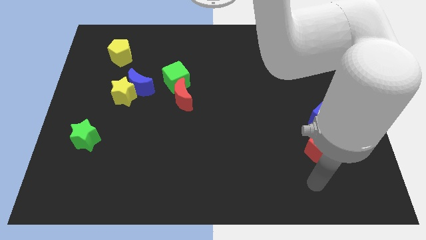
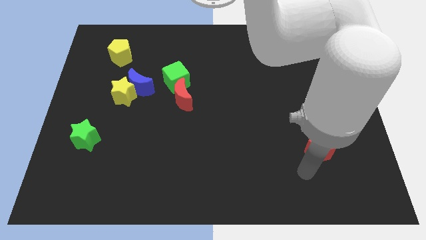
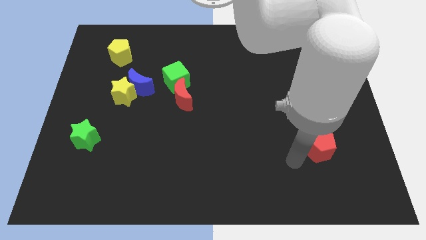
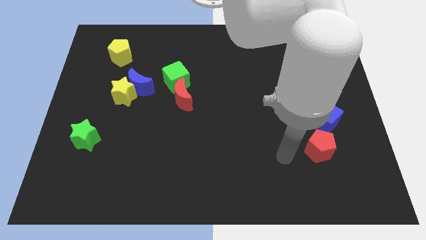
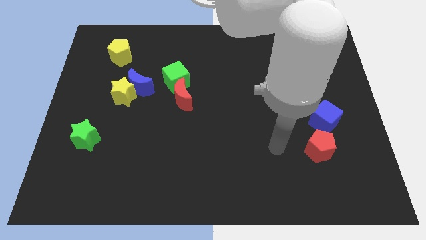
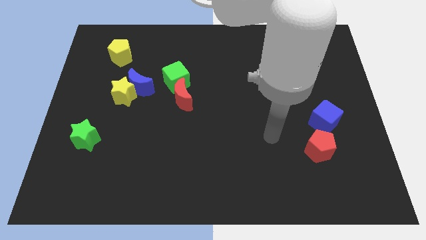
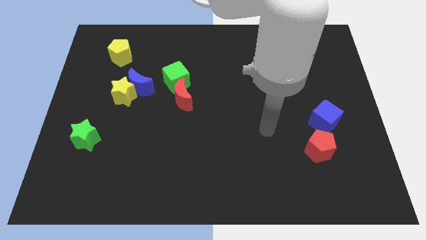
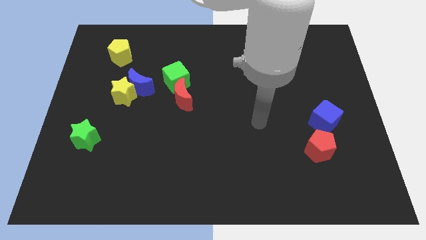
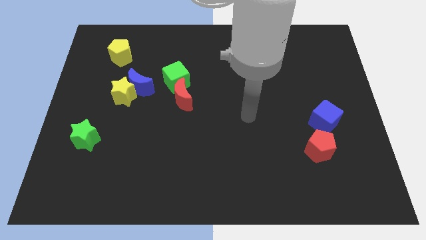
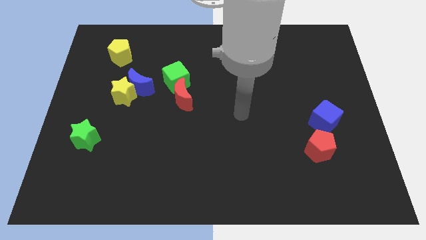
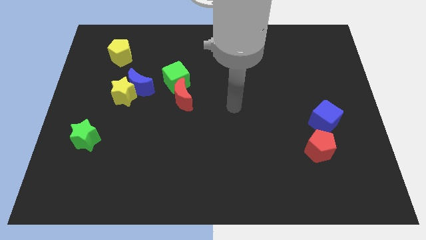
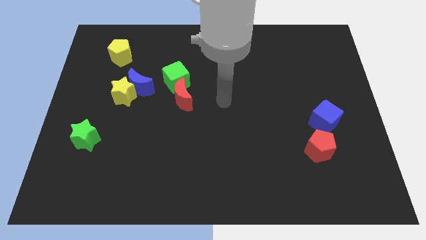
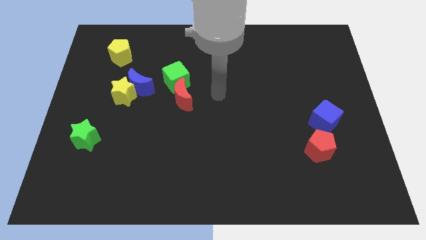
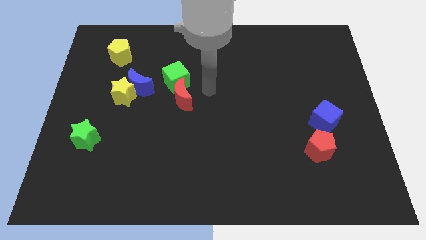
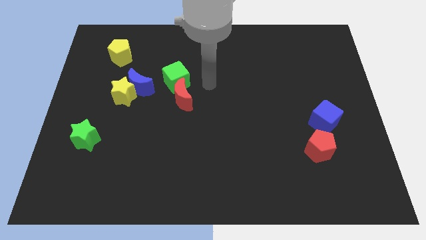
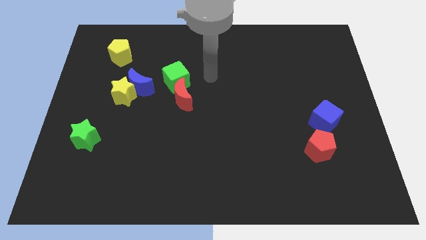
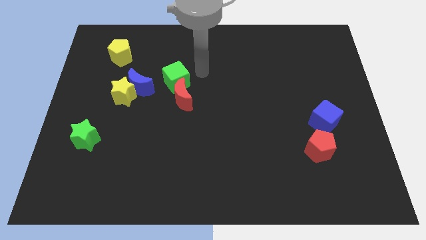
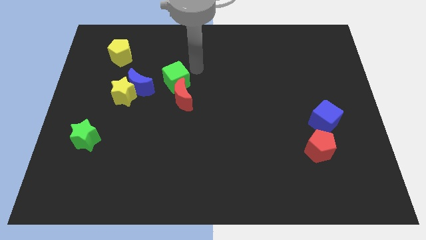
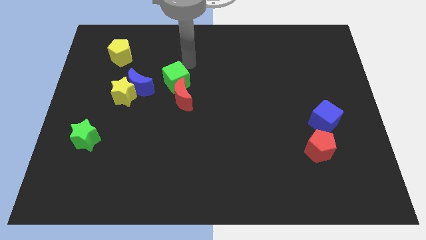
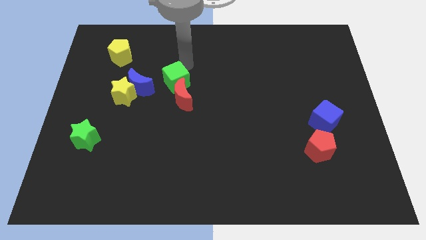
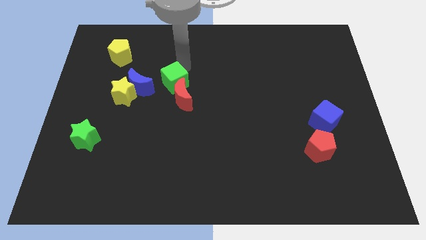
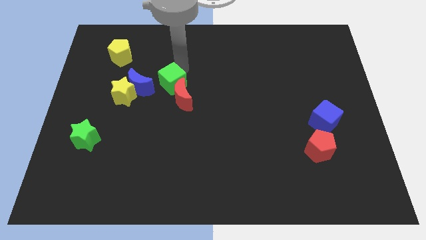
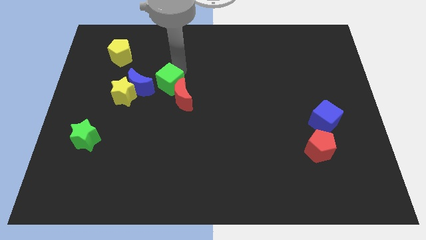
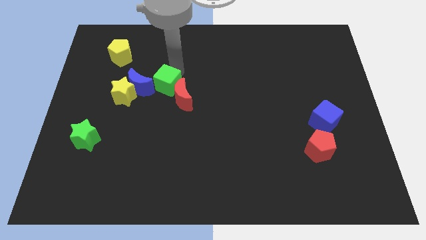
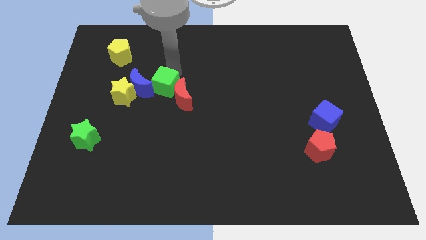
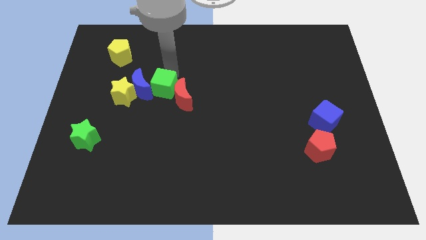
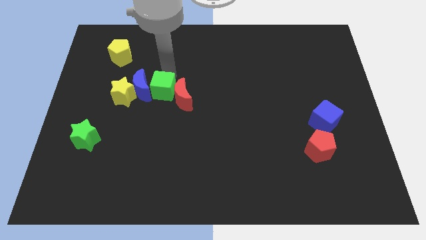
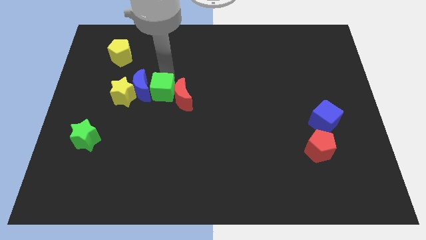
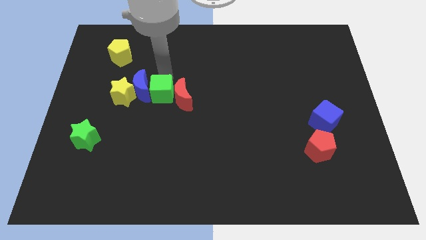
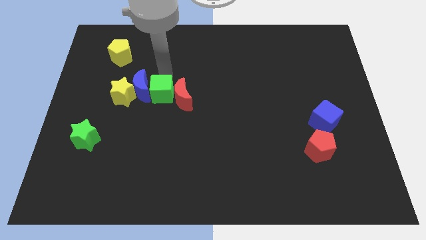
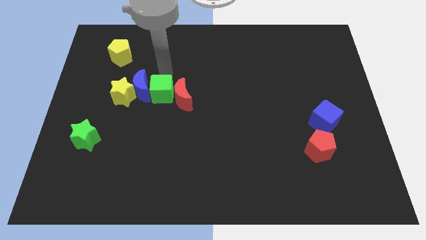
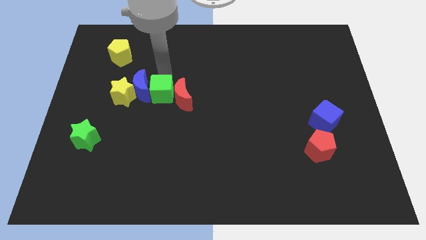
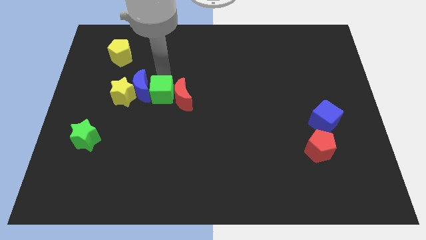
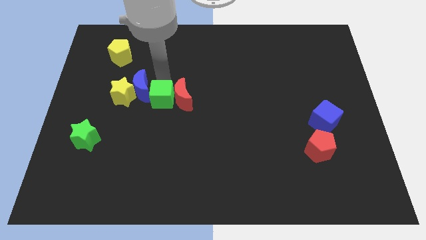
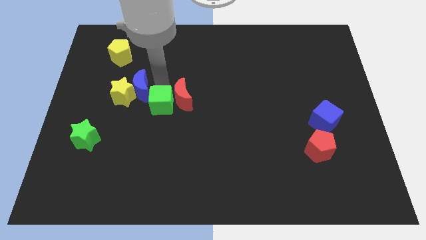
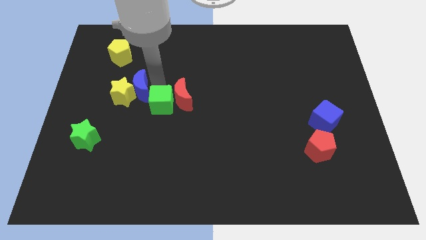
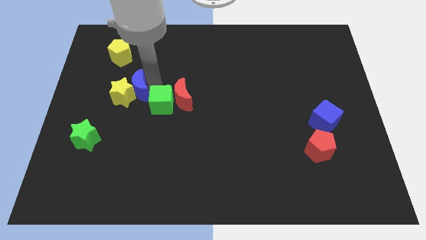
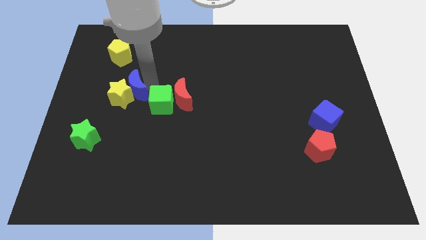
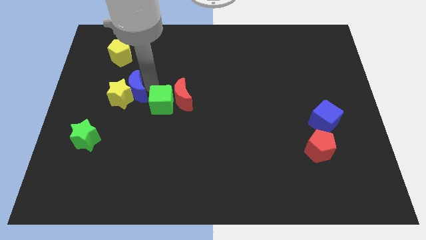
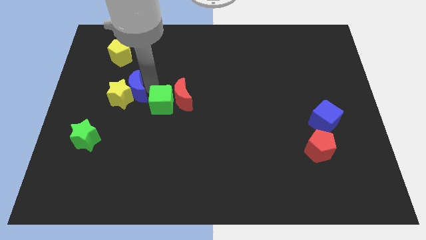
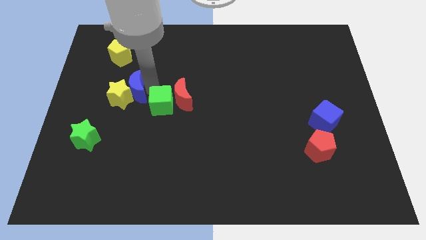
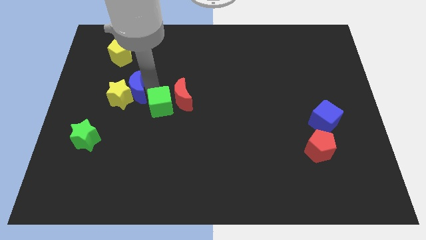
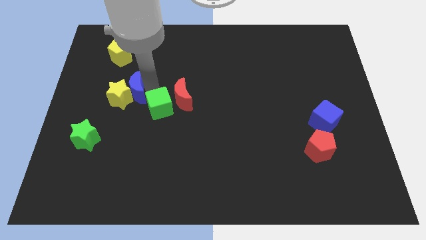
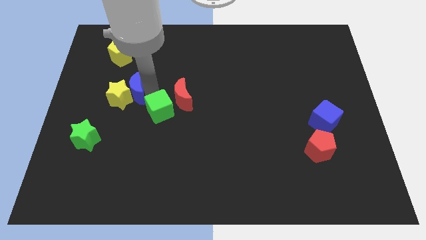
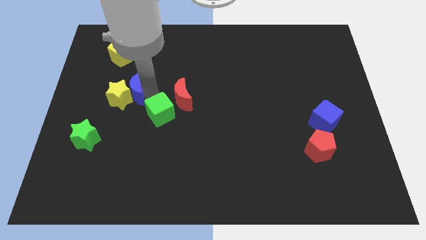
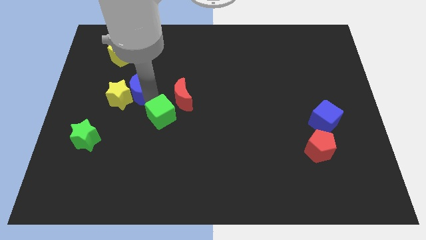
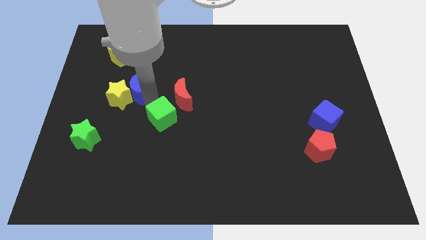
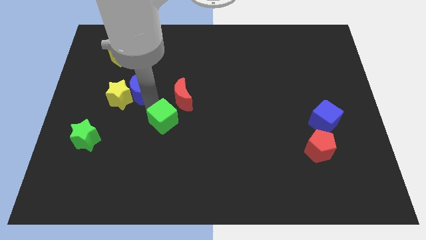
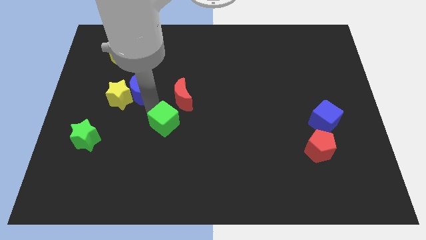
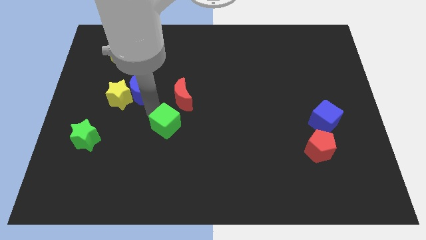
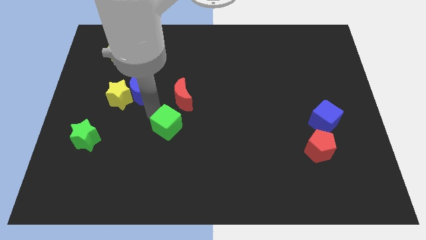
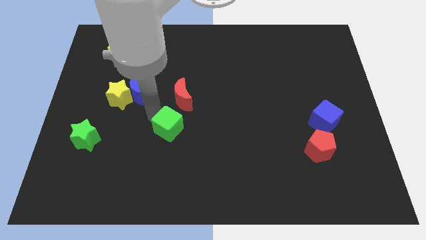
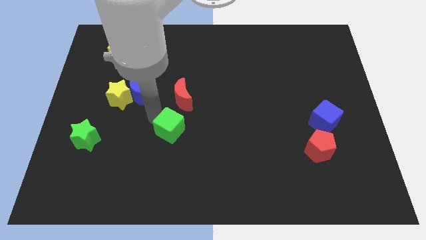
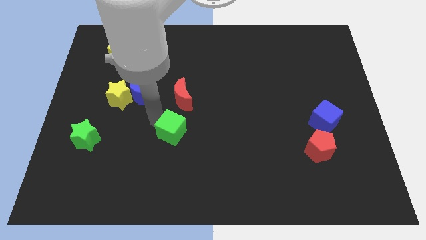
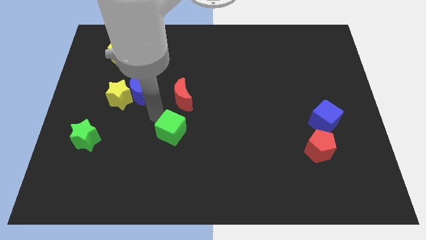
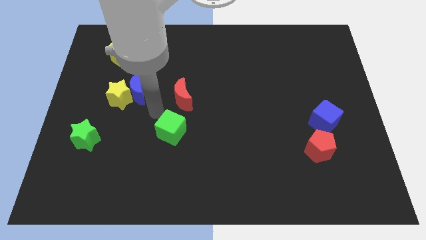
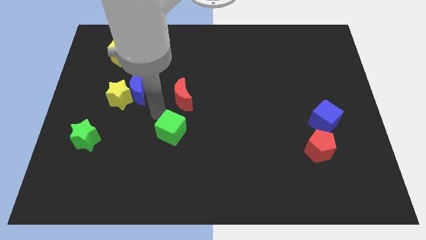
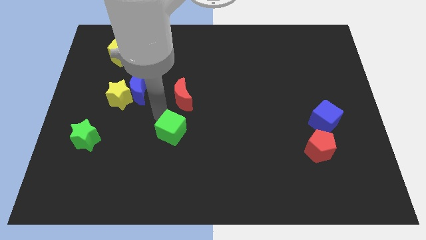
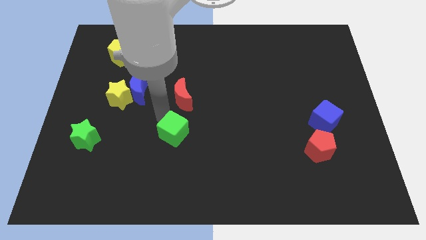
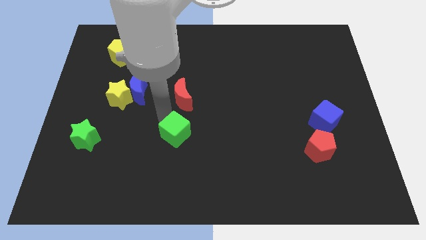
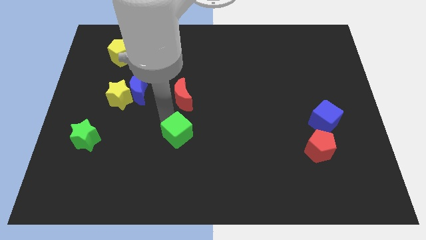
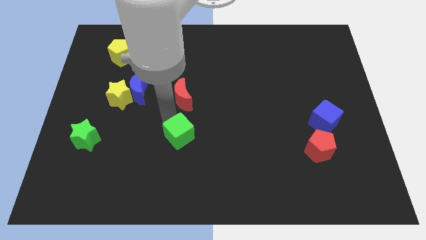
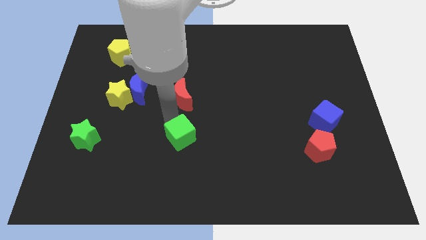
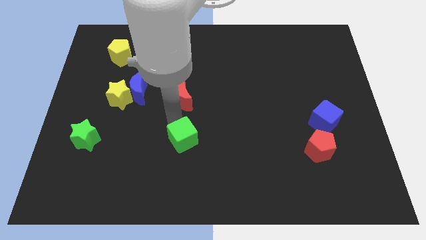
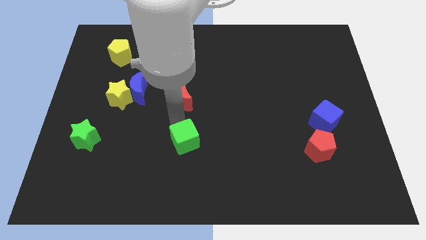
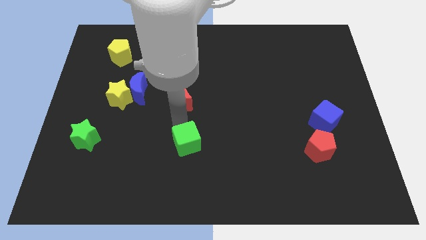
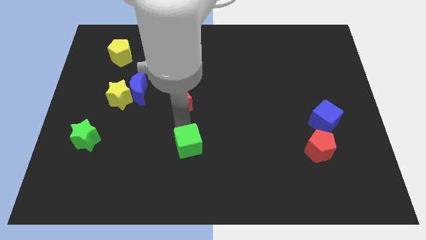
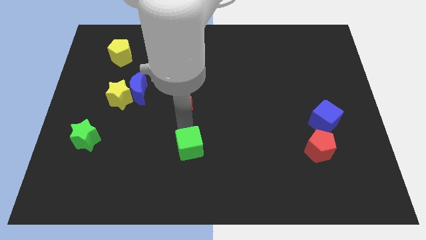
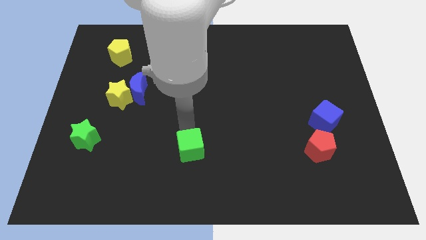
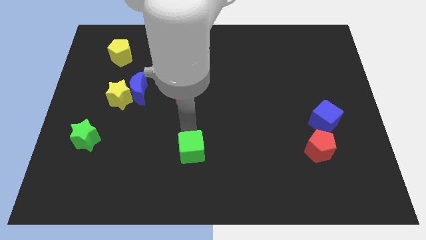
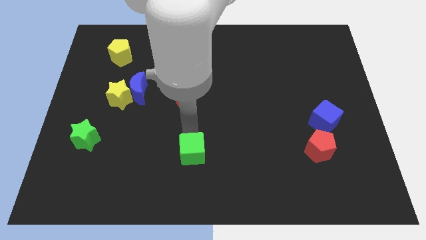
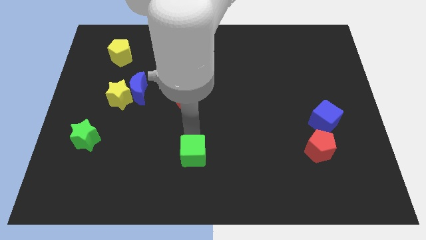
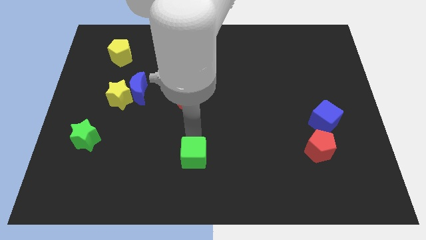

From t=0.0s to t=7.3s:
move the green cube to the bottom

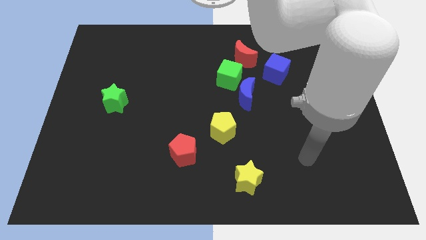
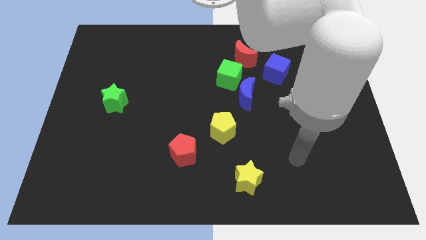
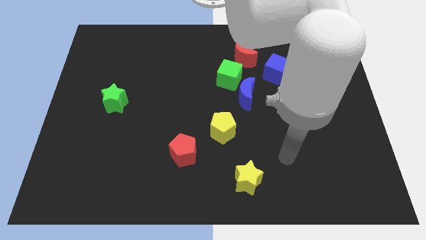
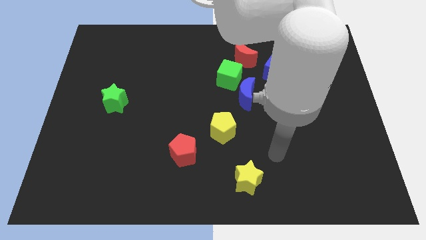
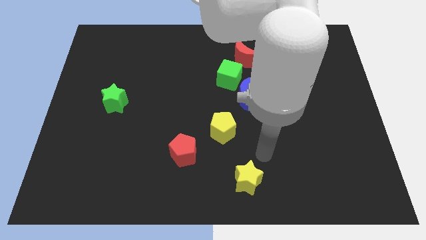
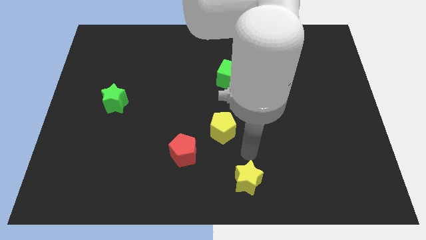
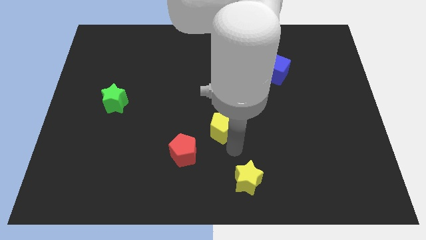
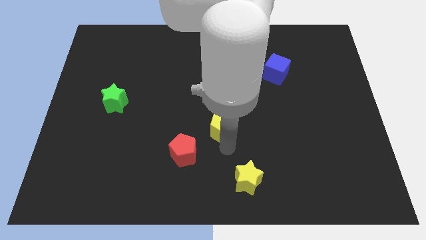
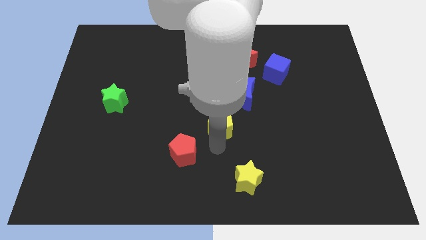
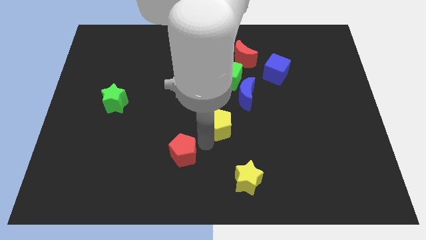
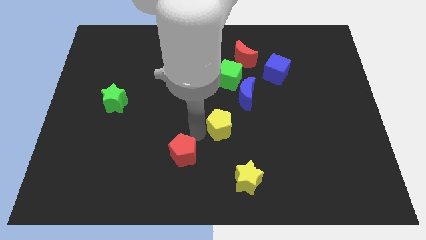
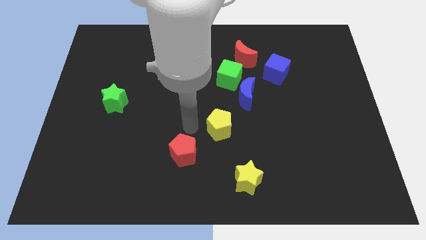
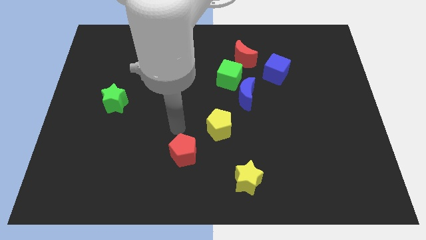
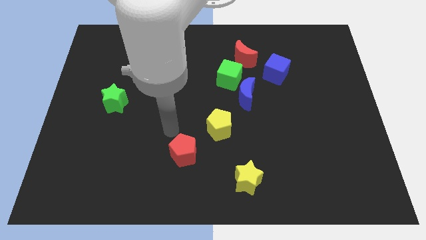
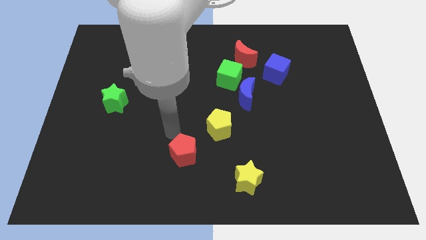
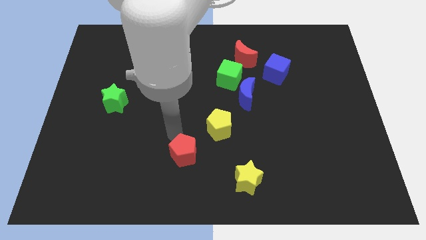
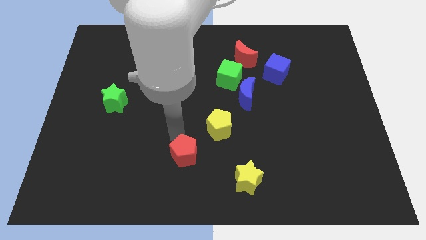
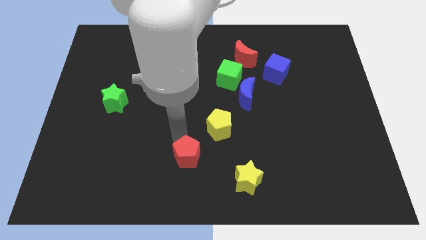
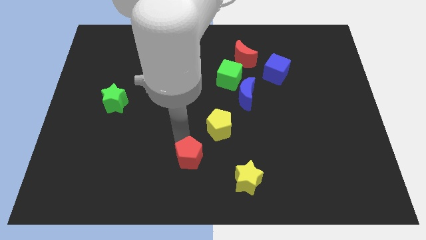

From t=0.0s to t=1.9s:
push the red pentagon to the bottom
